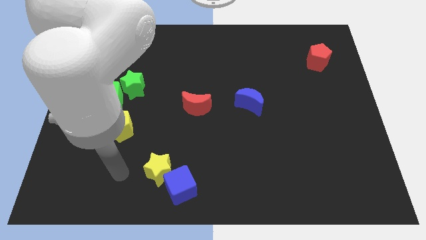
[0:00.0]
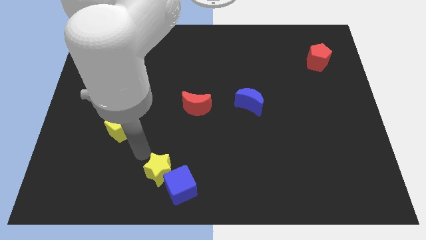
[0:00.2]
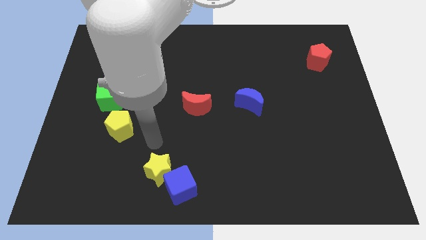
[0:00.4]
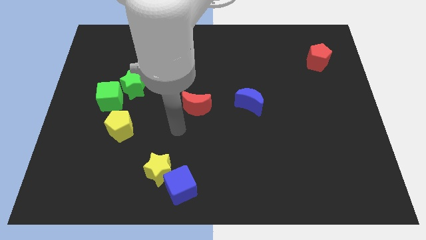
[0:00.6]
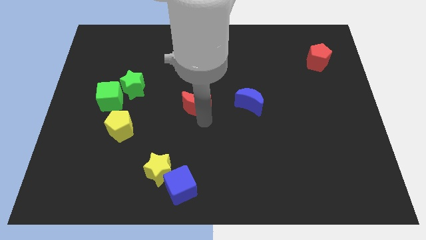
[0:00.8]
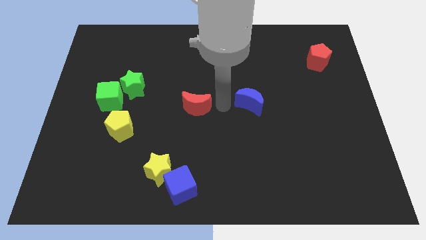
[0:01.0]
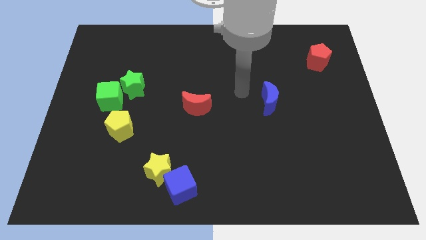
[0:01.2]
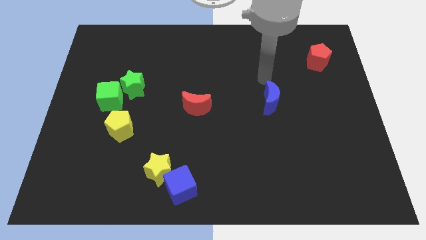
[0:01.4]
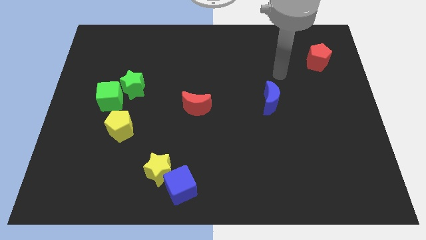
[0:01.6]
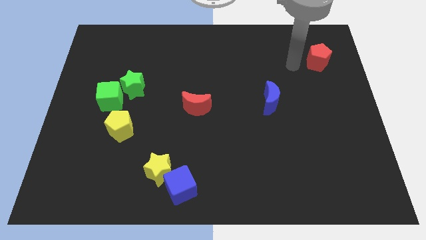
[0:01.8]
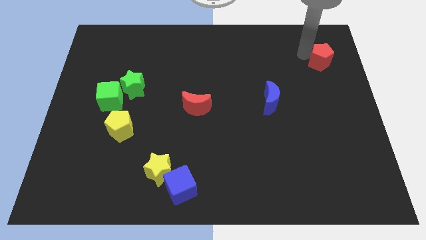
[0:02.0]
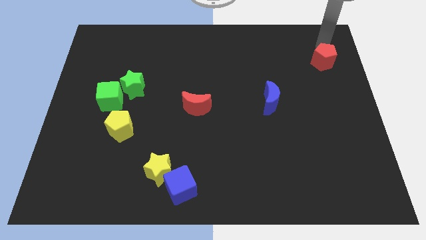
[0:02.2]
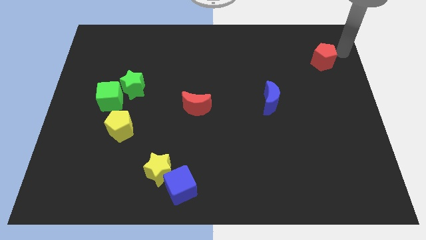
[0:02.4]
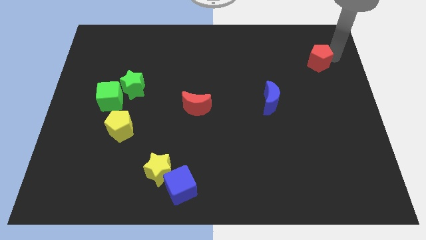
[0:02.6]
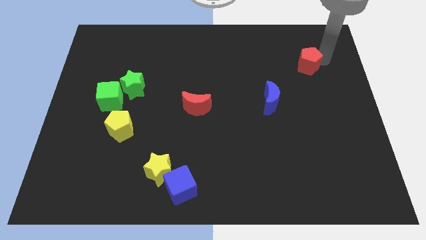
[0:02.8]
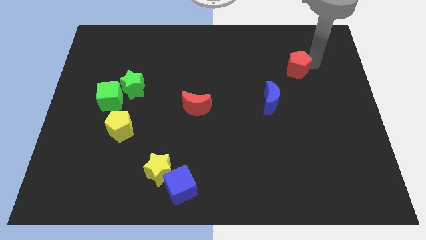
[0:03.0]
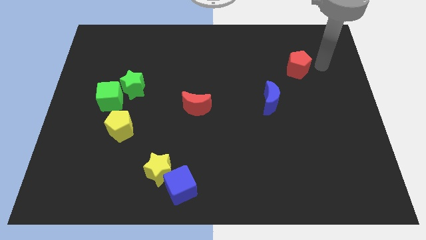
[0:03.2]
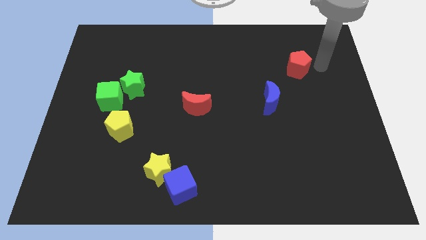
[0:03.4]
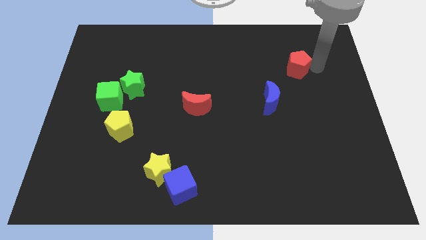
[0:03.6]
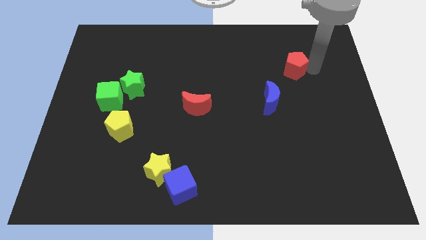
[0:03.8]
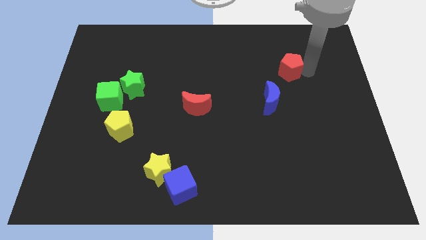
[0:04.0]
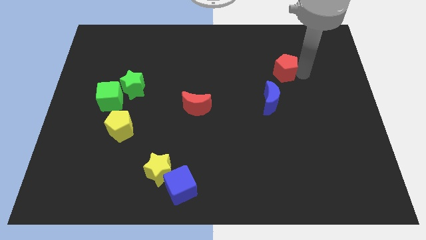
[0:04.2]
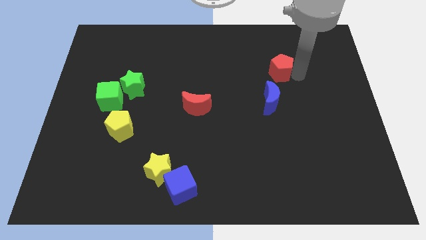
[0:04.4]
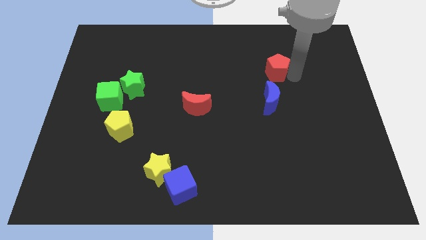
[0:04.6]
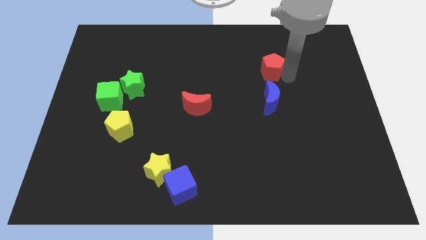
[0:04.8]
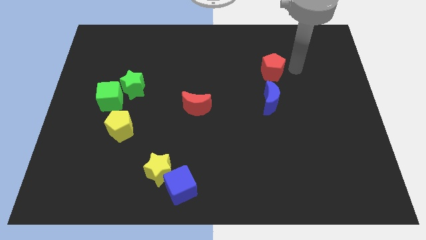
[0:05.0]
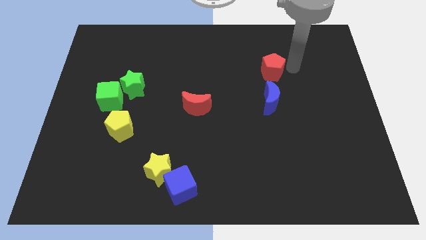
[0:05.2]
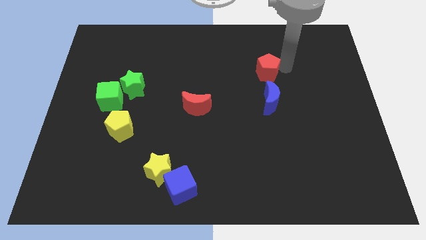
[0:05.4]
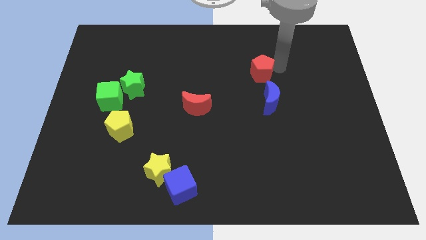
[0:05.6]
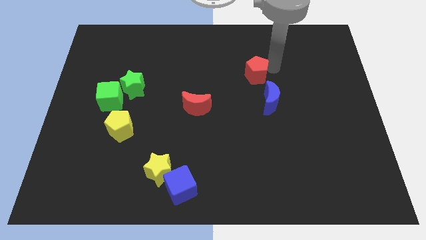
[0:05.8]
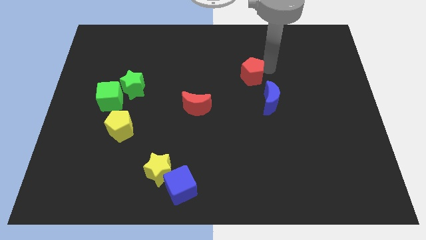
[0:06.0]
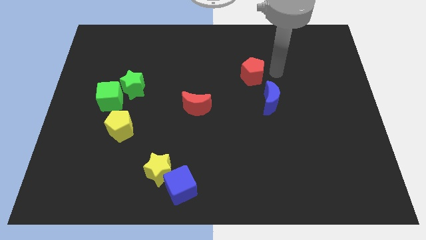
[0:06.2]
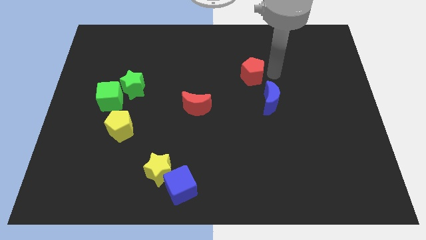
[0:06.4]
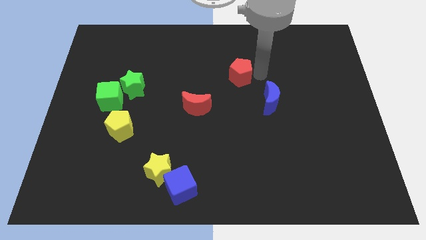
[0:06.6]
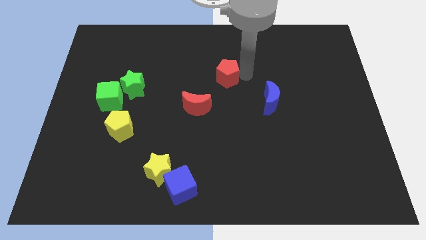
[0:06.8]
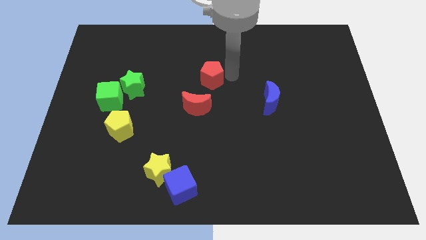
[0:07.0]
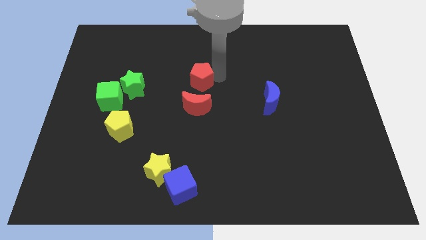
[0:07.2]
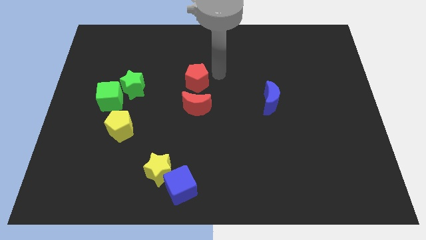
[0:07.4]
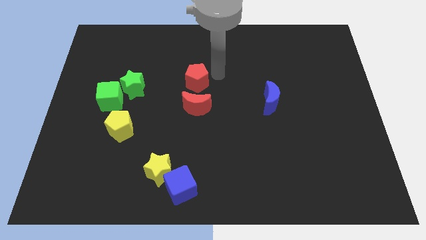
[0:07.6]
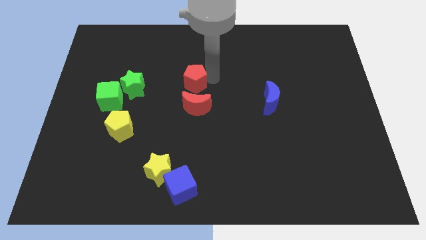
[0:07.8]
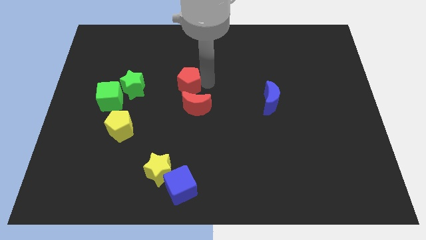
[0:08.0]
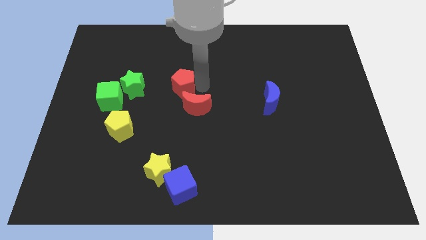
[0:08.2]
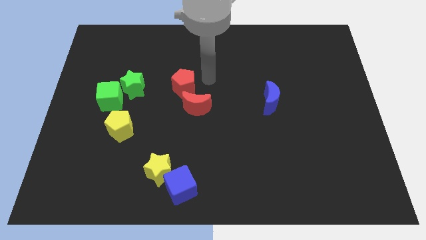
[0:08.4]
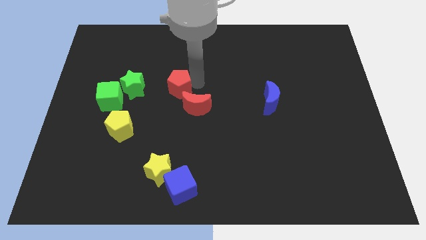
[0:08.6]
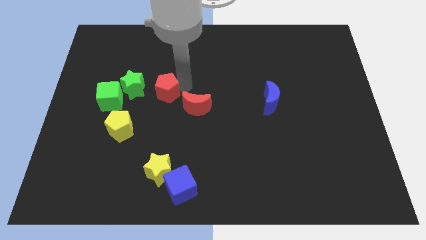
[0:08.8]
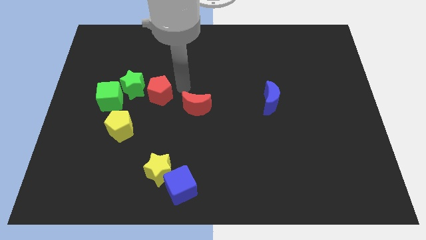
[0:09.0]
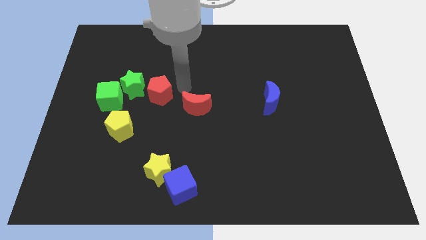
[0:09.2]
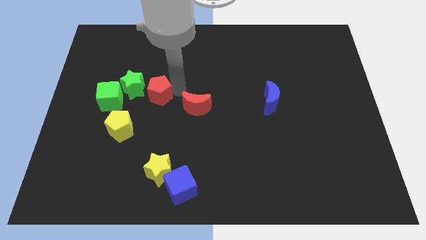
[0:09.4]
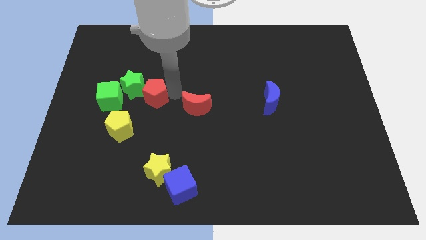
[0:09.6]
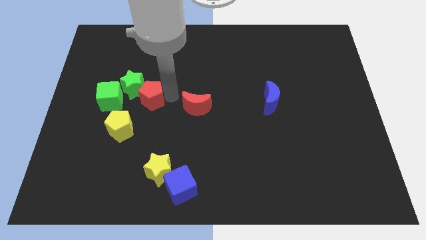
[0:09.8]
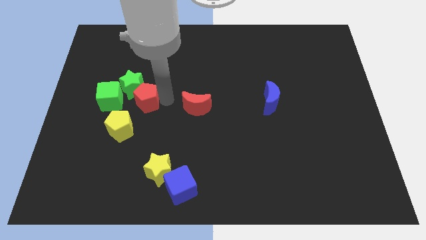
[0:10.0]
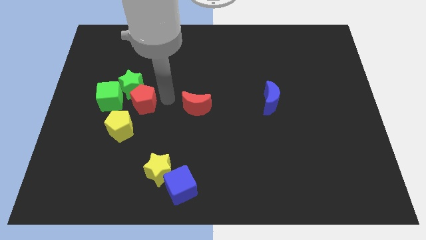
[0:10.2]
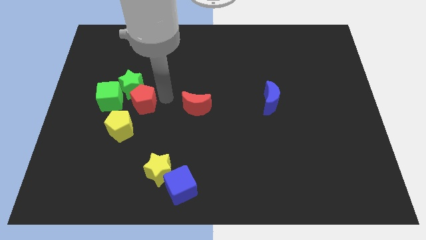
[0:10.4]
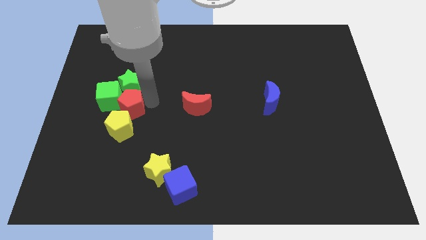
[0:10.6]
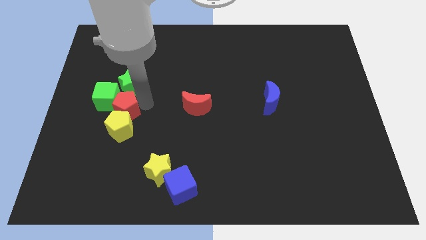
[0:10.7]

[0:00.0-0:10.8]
move the red pentagon to the top left of the yellow pentagon

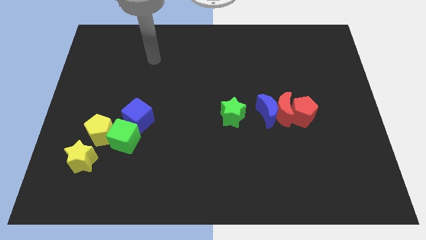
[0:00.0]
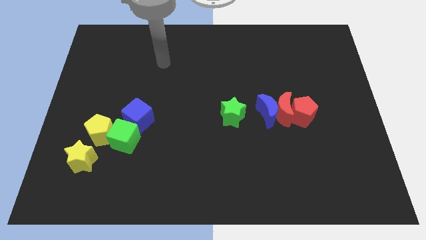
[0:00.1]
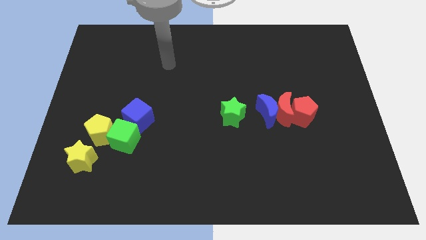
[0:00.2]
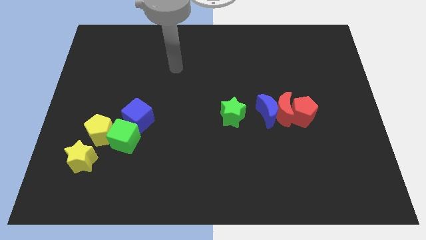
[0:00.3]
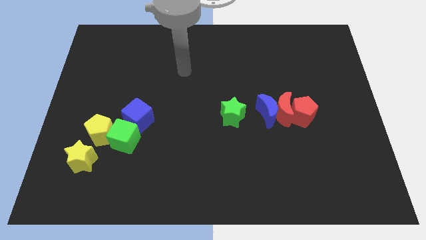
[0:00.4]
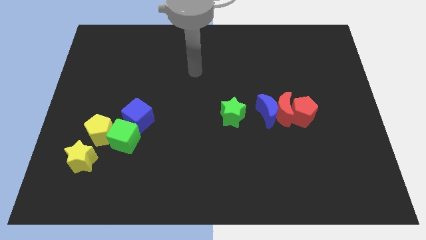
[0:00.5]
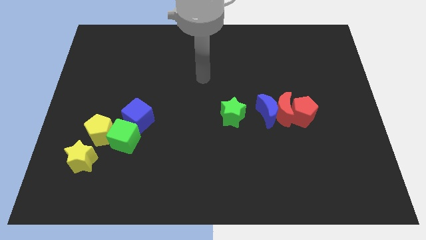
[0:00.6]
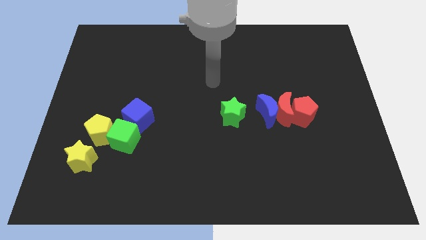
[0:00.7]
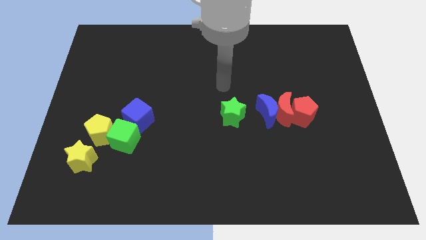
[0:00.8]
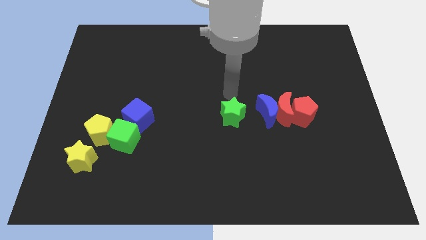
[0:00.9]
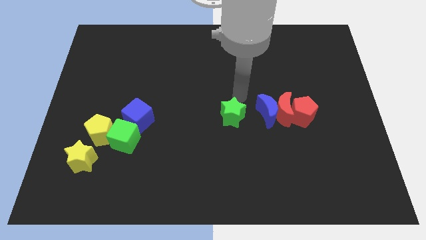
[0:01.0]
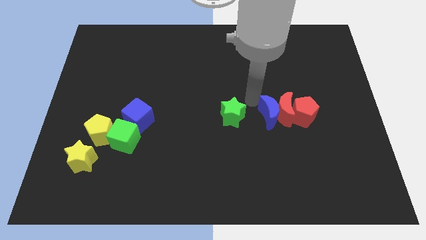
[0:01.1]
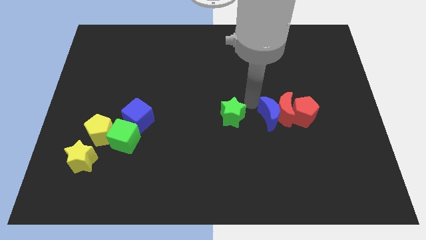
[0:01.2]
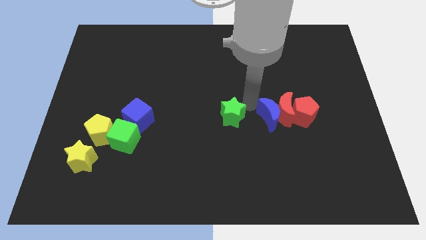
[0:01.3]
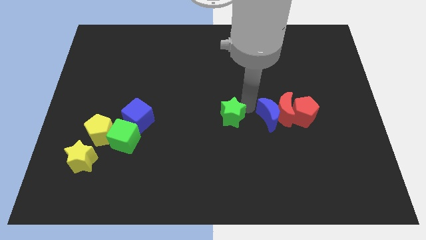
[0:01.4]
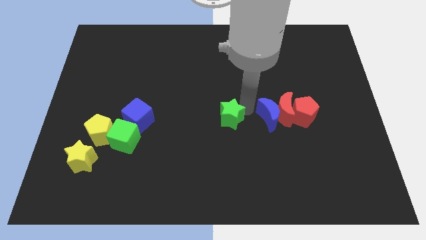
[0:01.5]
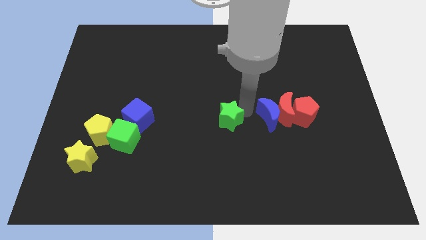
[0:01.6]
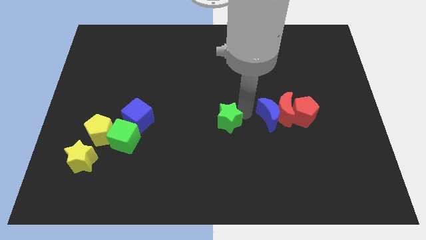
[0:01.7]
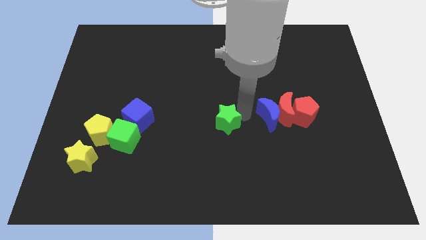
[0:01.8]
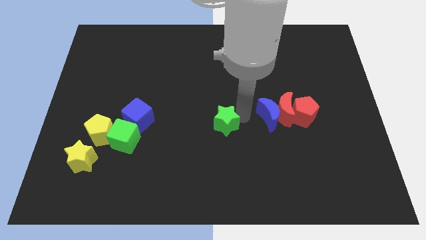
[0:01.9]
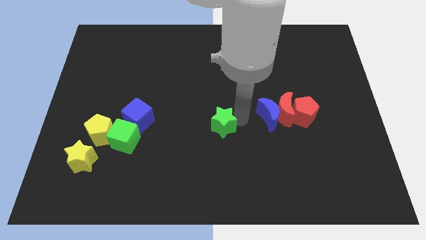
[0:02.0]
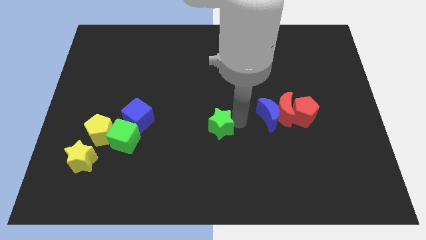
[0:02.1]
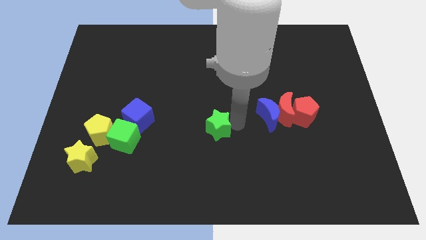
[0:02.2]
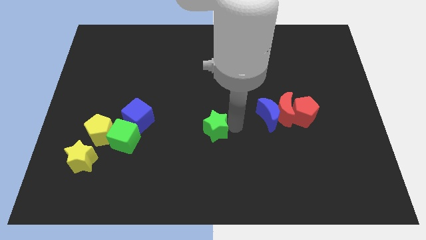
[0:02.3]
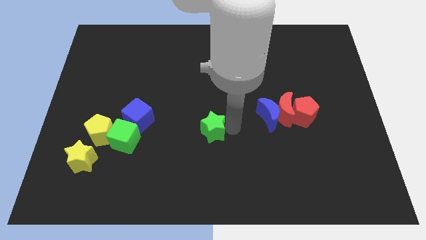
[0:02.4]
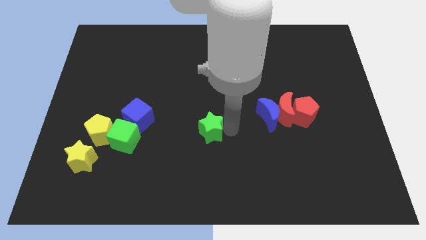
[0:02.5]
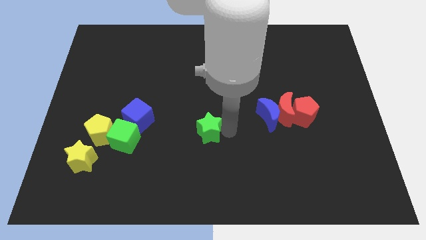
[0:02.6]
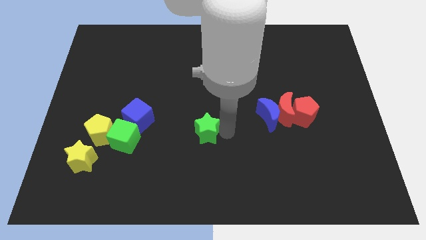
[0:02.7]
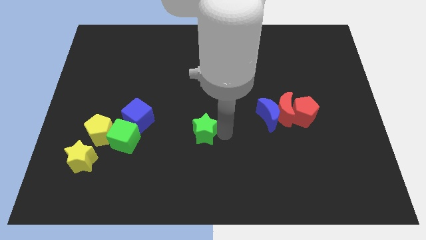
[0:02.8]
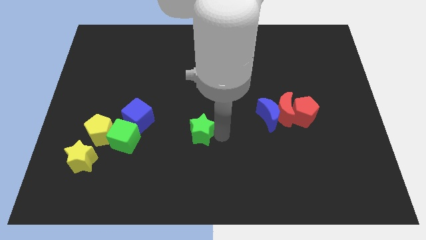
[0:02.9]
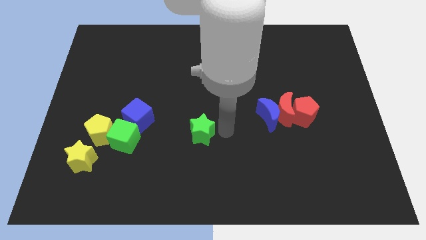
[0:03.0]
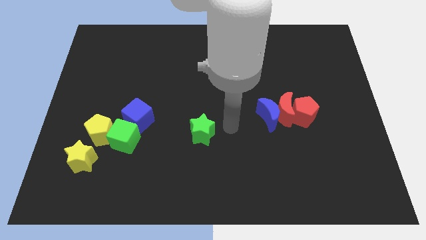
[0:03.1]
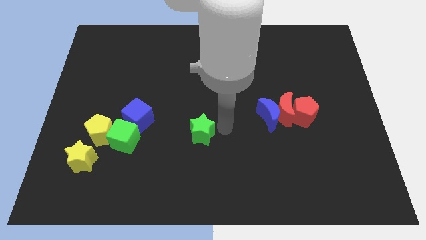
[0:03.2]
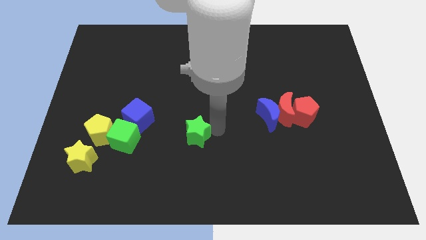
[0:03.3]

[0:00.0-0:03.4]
put the green star to the right of the green cube
